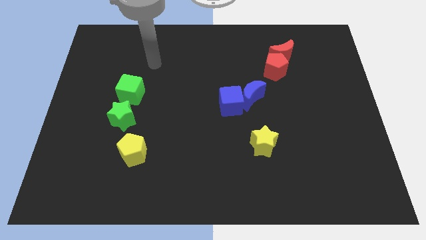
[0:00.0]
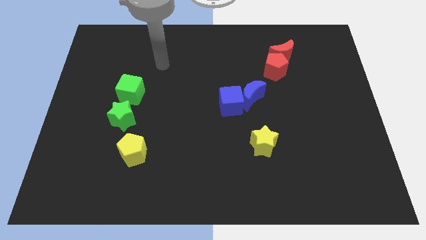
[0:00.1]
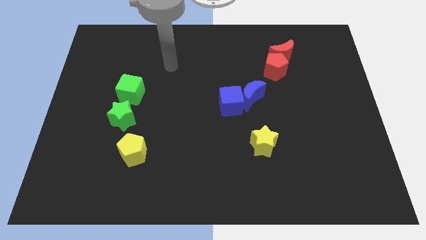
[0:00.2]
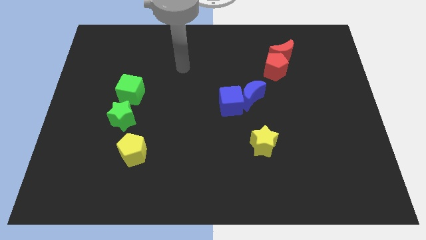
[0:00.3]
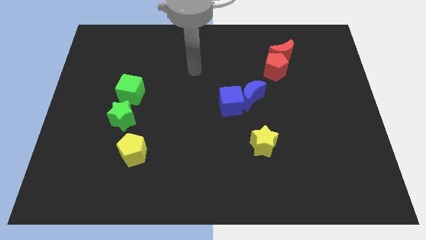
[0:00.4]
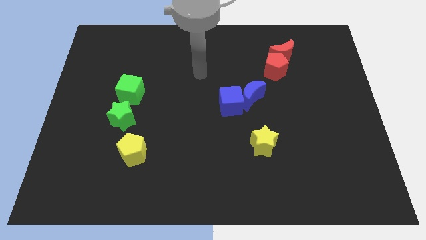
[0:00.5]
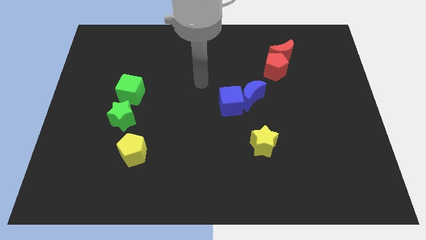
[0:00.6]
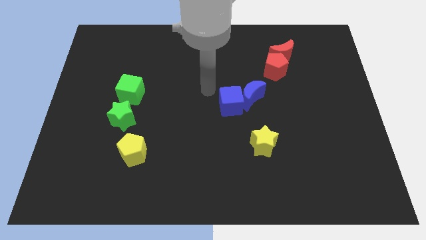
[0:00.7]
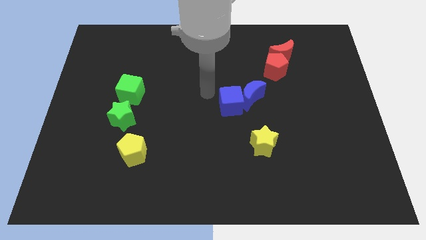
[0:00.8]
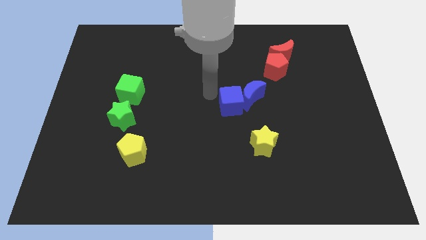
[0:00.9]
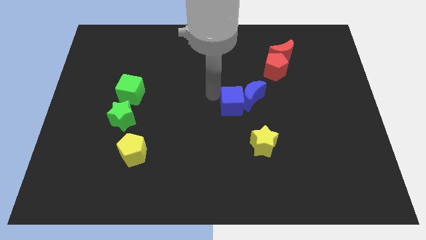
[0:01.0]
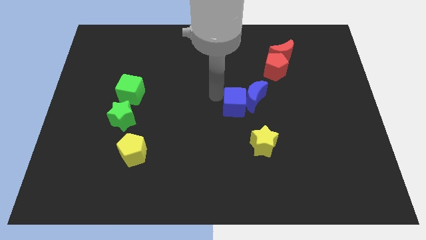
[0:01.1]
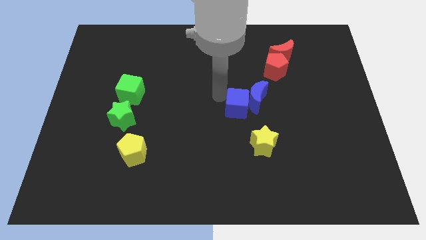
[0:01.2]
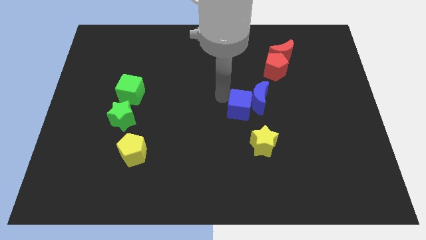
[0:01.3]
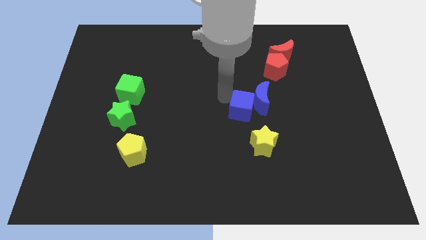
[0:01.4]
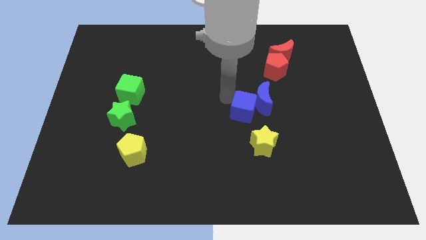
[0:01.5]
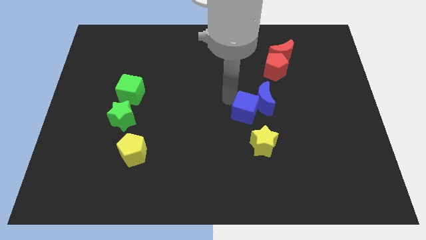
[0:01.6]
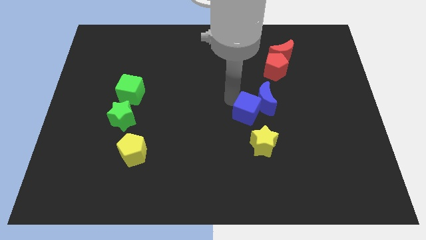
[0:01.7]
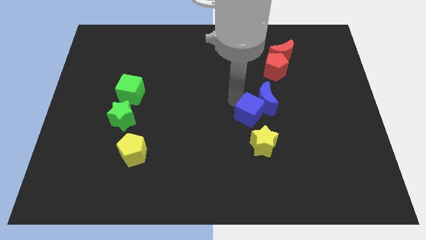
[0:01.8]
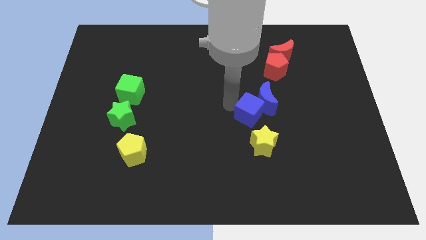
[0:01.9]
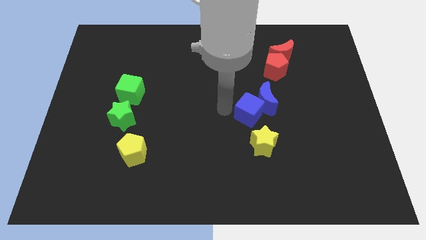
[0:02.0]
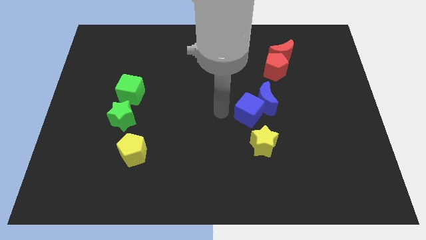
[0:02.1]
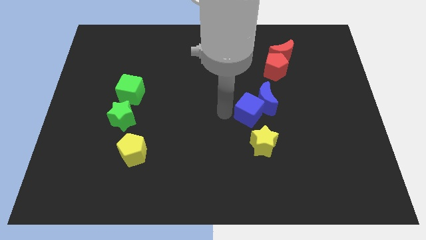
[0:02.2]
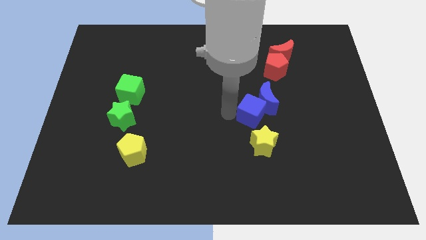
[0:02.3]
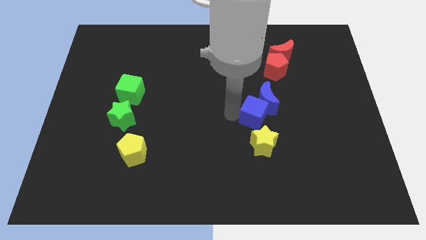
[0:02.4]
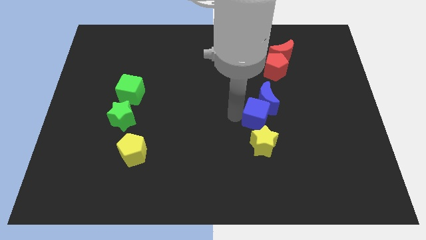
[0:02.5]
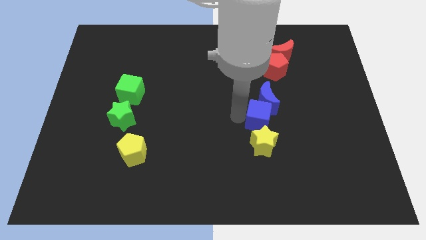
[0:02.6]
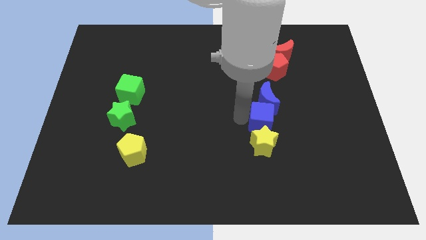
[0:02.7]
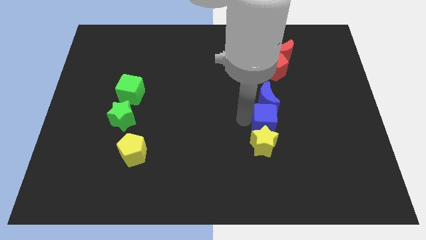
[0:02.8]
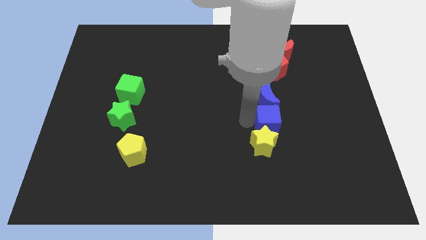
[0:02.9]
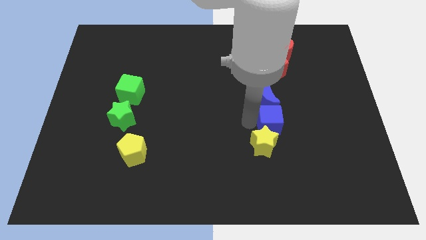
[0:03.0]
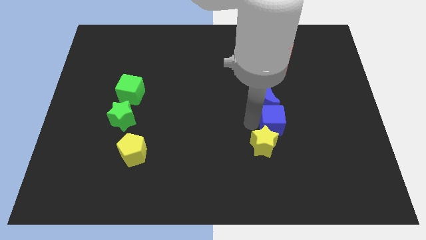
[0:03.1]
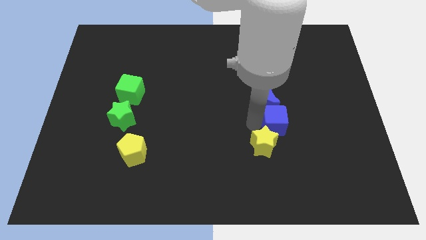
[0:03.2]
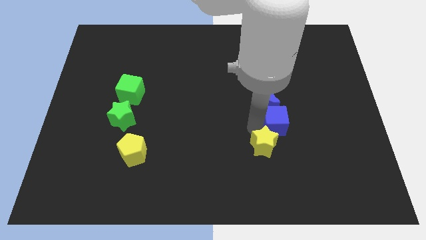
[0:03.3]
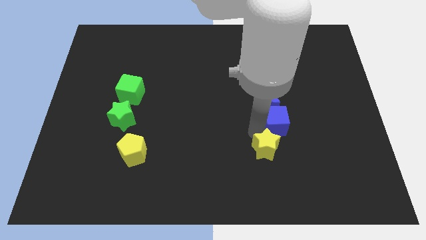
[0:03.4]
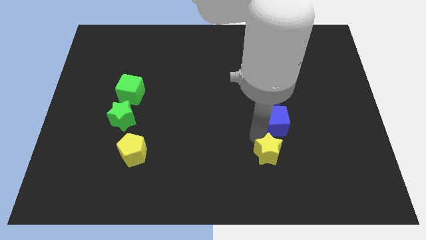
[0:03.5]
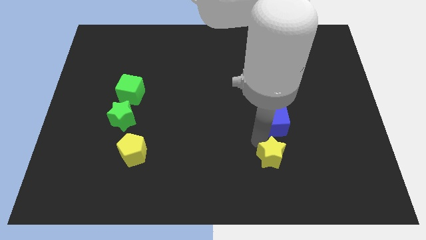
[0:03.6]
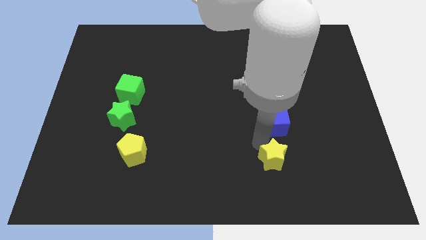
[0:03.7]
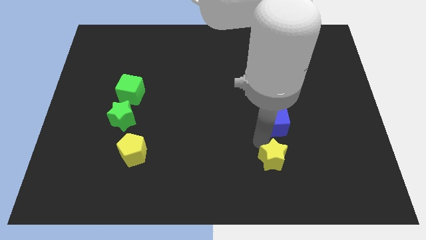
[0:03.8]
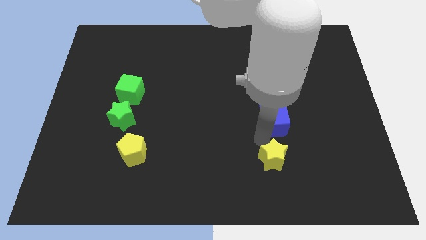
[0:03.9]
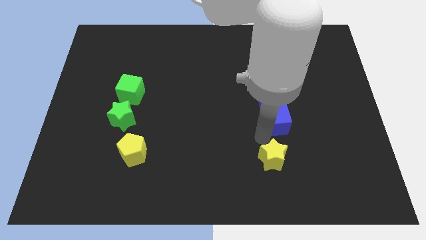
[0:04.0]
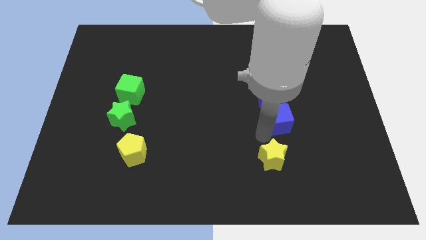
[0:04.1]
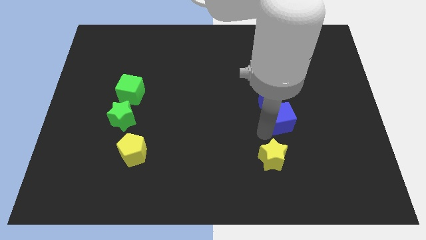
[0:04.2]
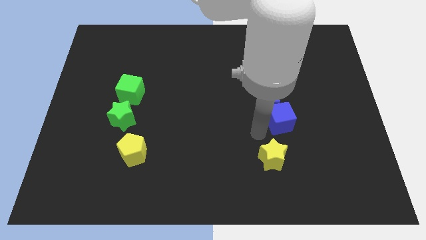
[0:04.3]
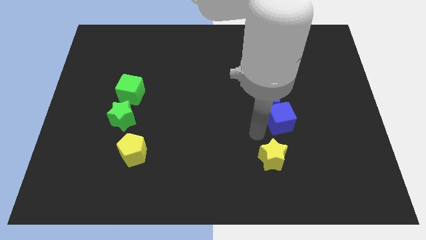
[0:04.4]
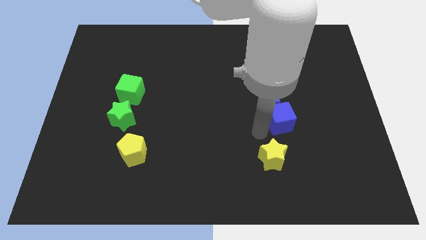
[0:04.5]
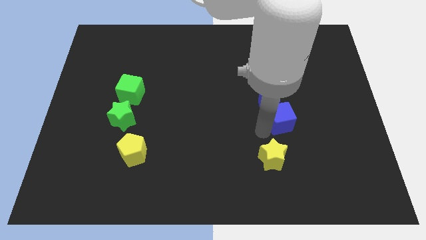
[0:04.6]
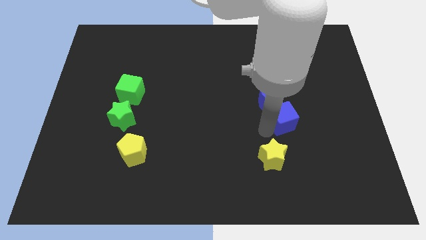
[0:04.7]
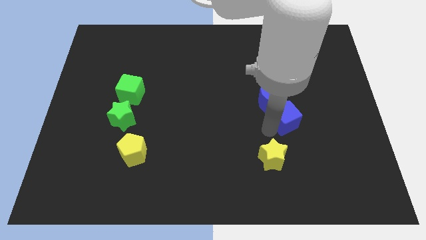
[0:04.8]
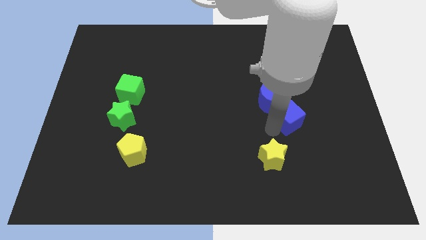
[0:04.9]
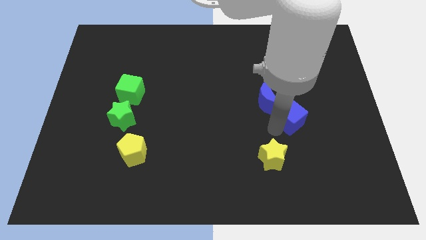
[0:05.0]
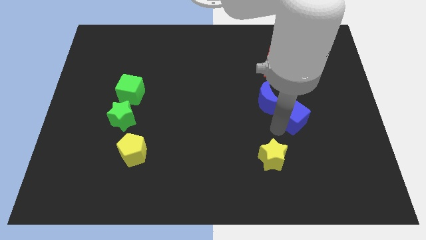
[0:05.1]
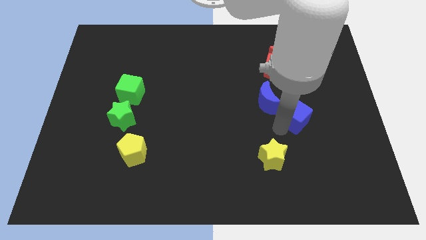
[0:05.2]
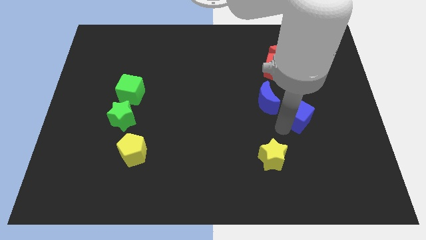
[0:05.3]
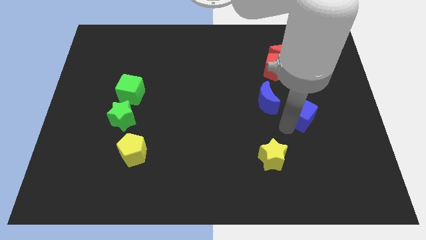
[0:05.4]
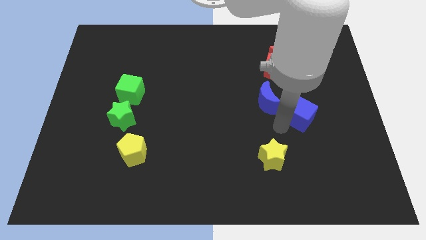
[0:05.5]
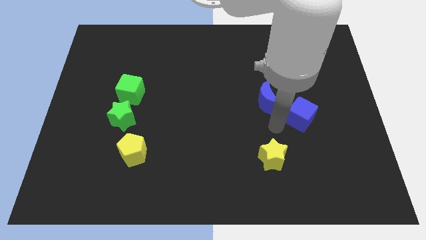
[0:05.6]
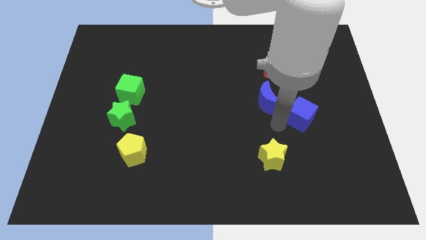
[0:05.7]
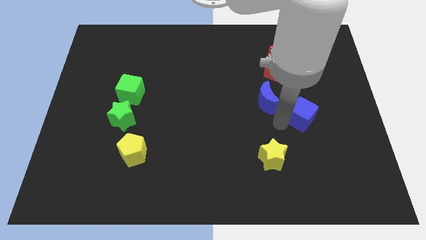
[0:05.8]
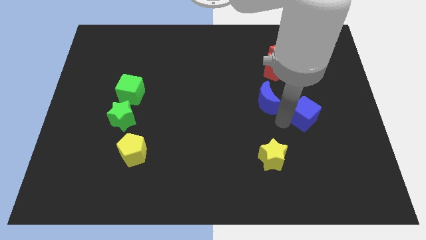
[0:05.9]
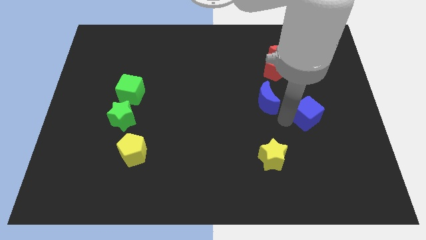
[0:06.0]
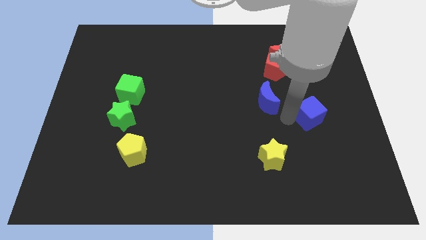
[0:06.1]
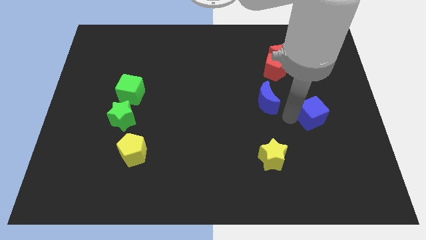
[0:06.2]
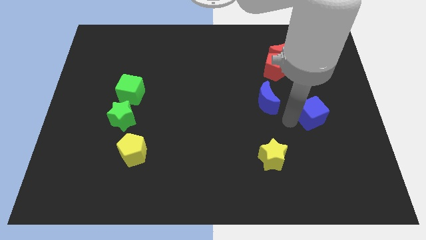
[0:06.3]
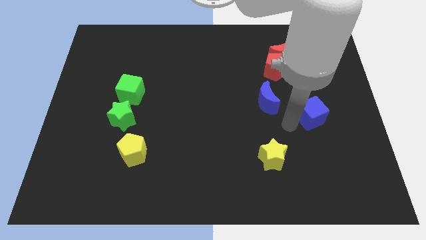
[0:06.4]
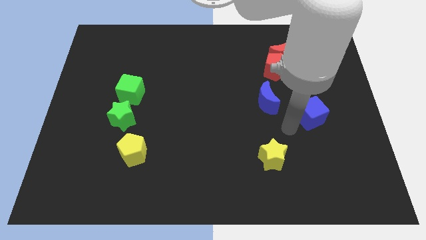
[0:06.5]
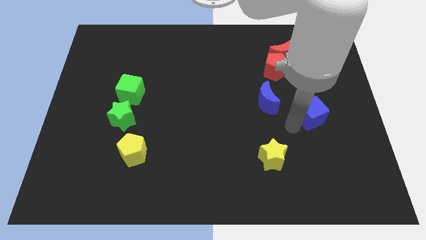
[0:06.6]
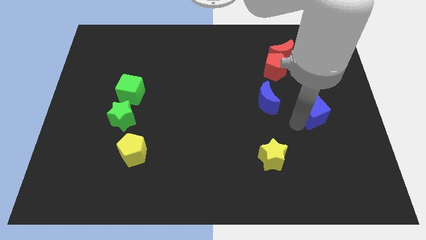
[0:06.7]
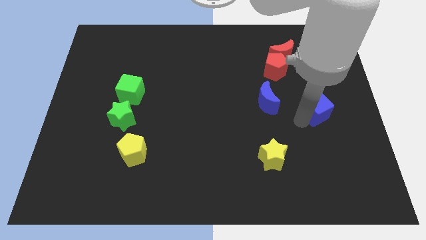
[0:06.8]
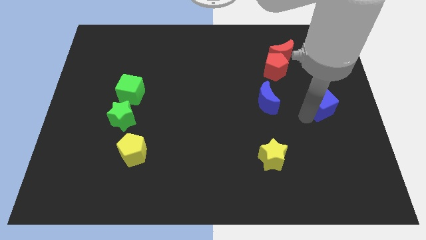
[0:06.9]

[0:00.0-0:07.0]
push the blue cube to the center right
